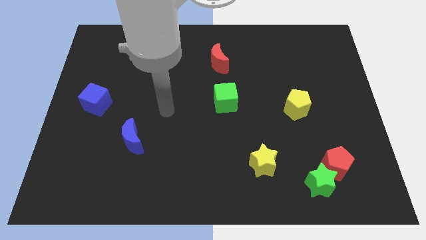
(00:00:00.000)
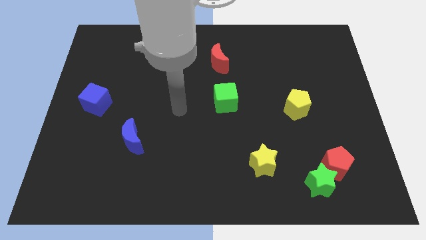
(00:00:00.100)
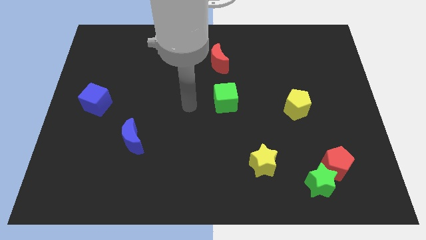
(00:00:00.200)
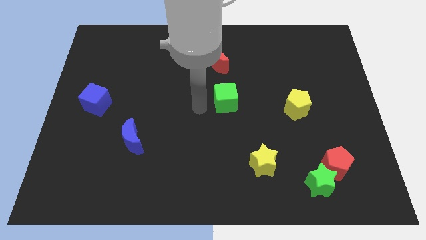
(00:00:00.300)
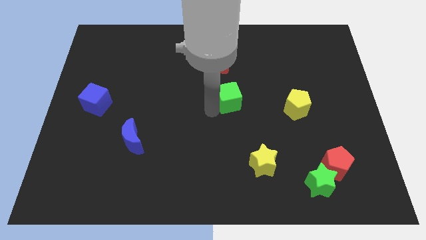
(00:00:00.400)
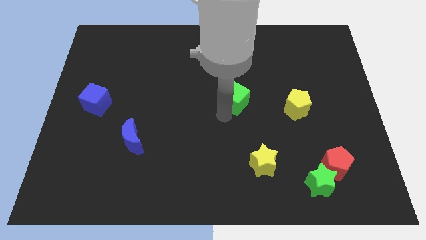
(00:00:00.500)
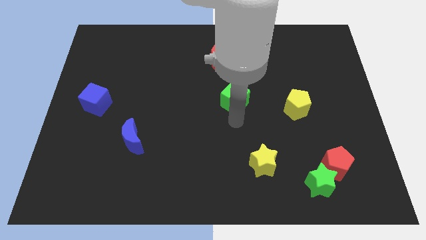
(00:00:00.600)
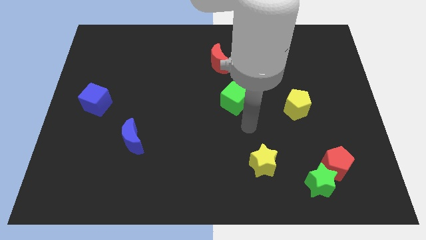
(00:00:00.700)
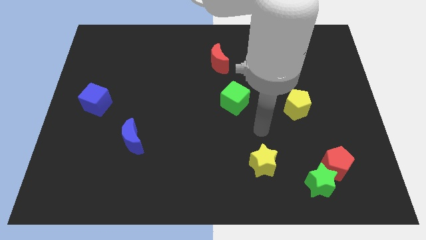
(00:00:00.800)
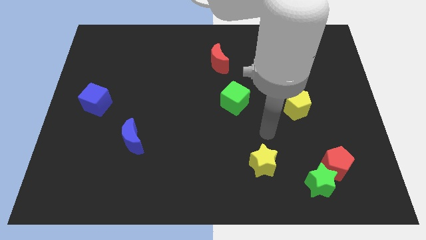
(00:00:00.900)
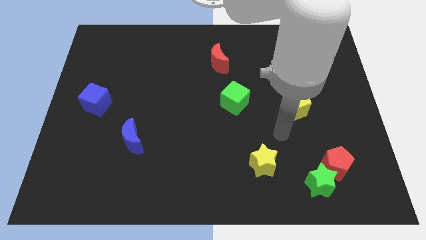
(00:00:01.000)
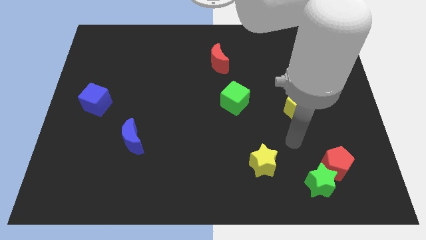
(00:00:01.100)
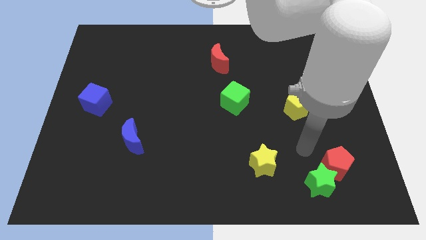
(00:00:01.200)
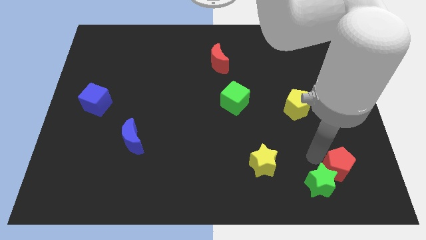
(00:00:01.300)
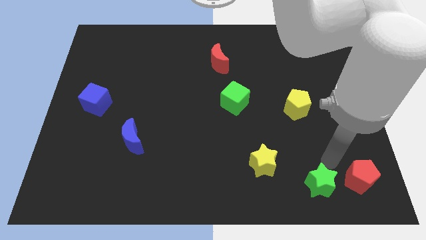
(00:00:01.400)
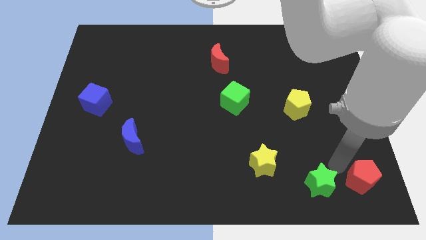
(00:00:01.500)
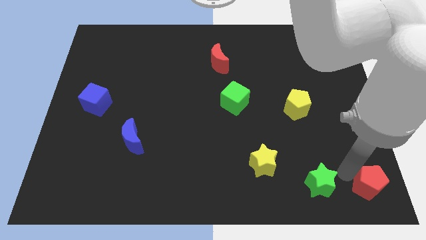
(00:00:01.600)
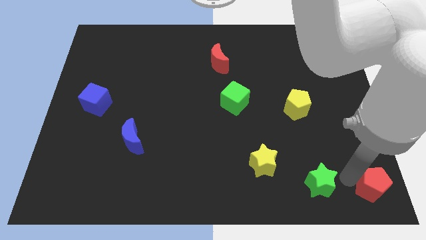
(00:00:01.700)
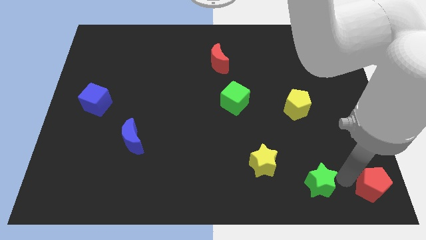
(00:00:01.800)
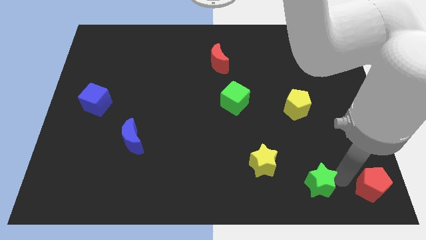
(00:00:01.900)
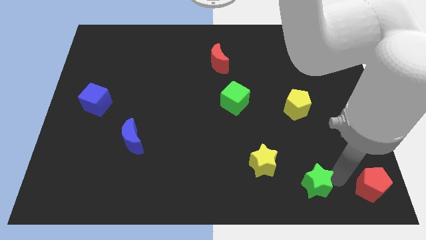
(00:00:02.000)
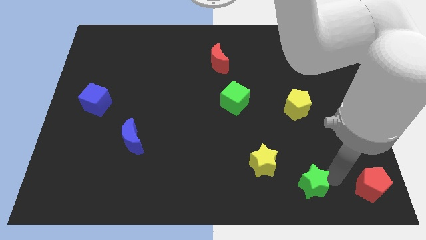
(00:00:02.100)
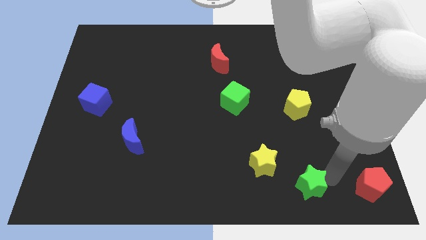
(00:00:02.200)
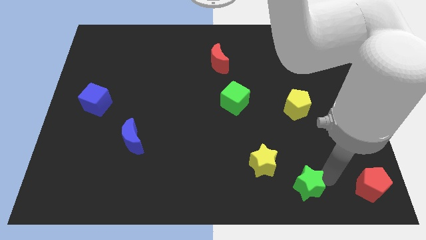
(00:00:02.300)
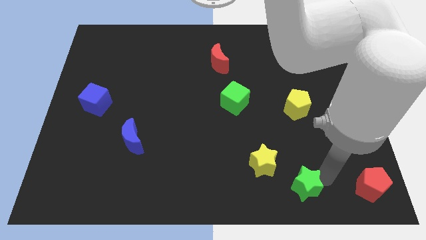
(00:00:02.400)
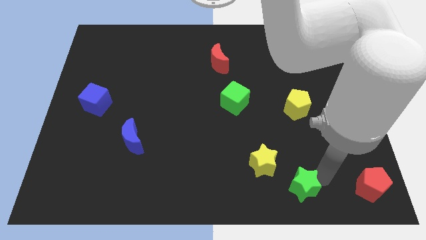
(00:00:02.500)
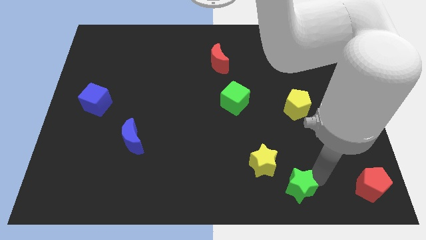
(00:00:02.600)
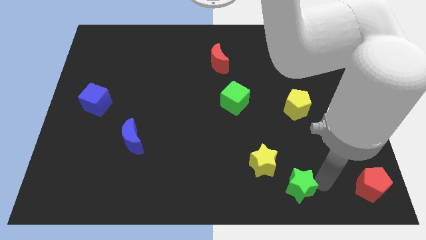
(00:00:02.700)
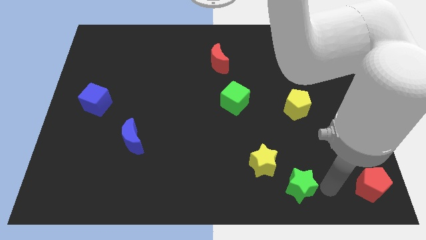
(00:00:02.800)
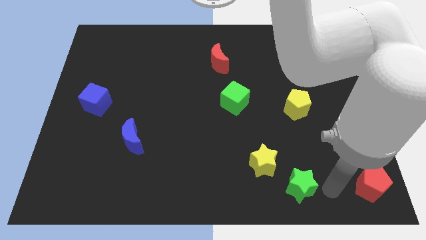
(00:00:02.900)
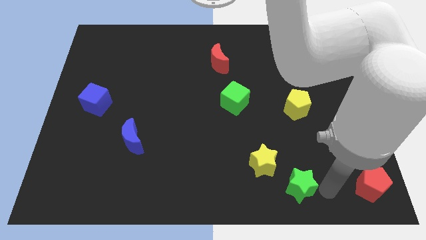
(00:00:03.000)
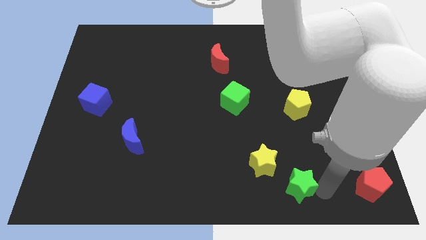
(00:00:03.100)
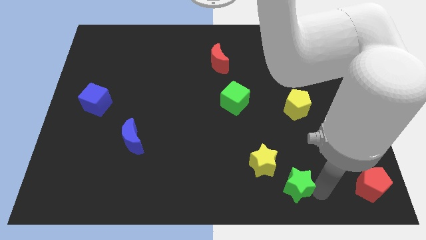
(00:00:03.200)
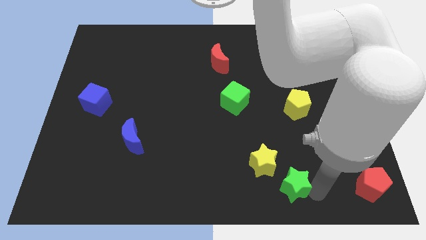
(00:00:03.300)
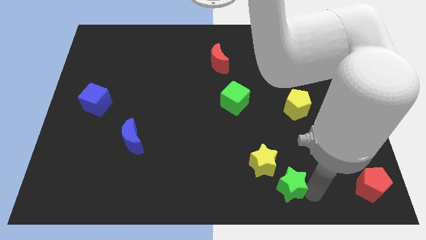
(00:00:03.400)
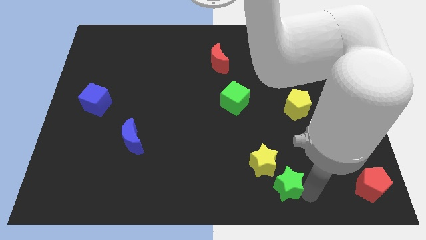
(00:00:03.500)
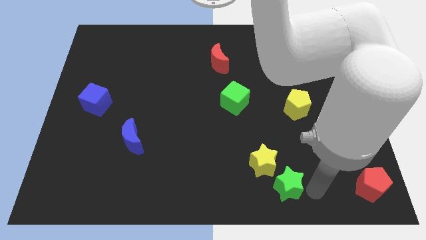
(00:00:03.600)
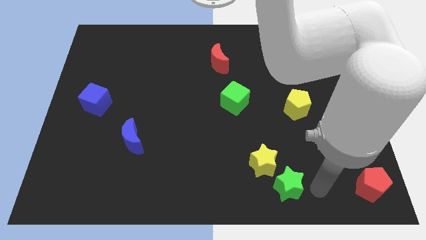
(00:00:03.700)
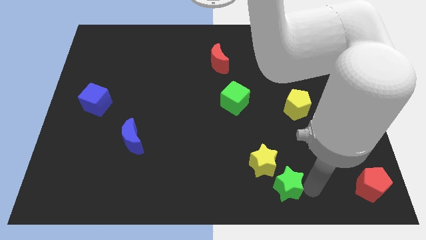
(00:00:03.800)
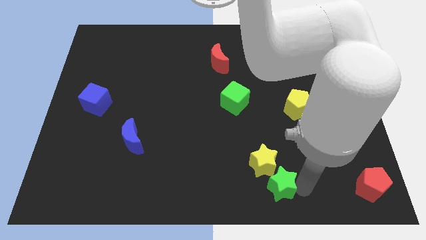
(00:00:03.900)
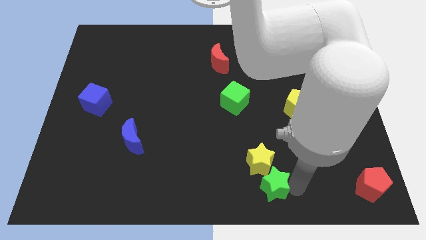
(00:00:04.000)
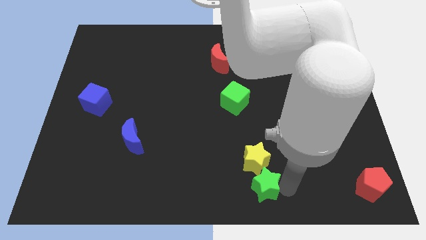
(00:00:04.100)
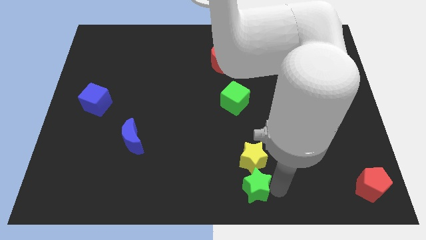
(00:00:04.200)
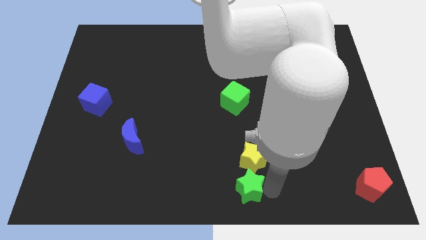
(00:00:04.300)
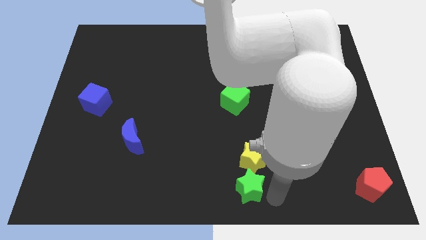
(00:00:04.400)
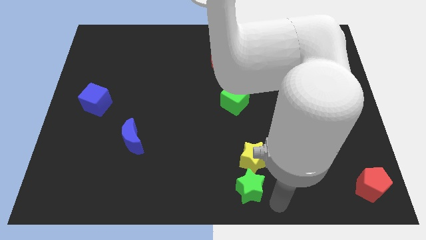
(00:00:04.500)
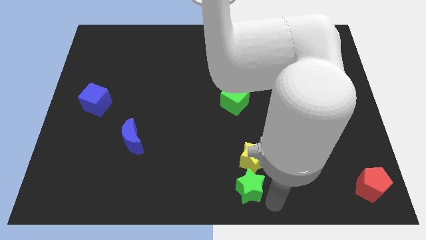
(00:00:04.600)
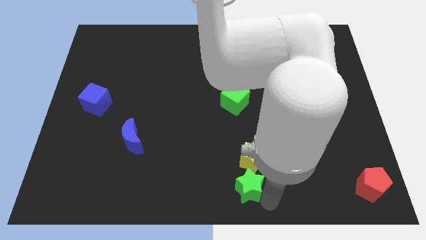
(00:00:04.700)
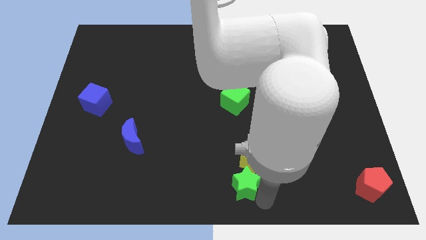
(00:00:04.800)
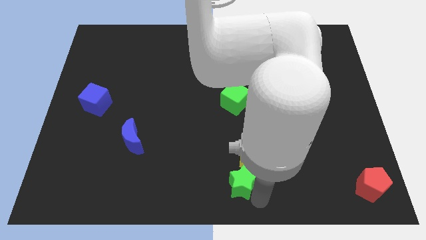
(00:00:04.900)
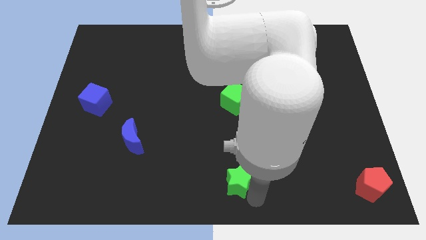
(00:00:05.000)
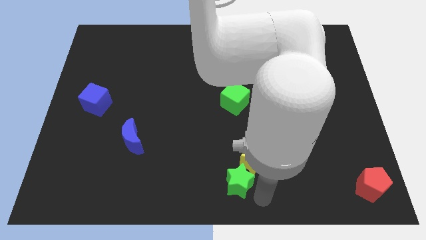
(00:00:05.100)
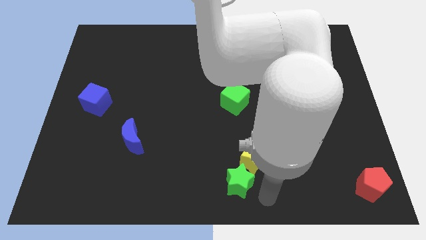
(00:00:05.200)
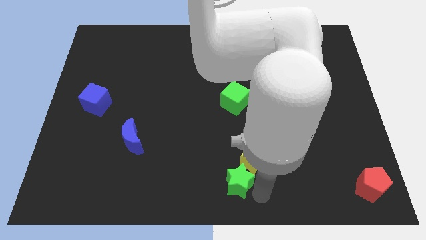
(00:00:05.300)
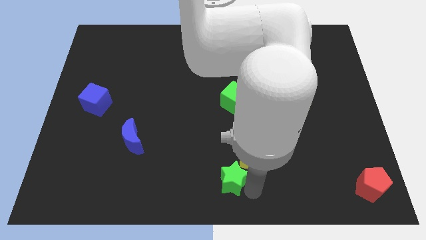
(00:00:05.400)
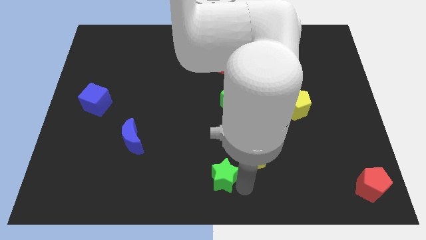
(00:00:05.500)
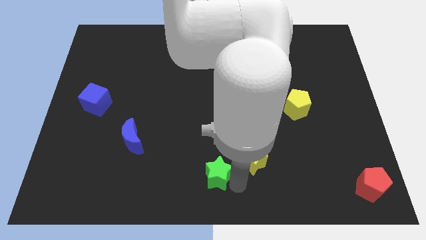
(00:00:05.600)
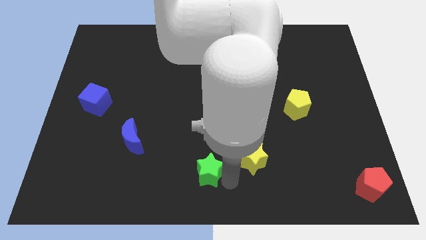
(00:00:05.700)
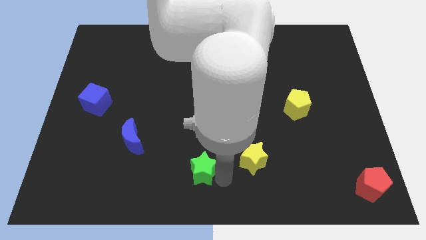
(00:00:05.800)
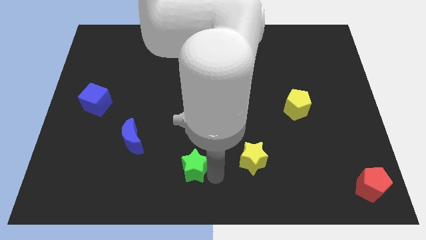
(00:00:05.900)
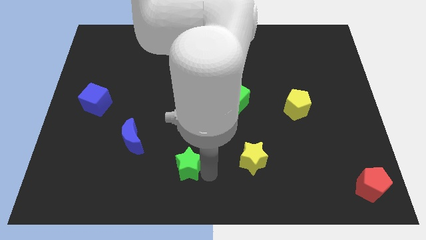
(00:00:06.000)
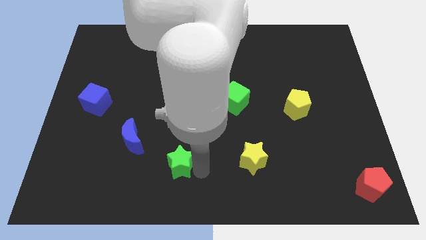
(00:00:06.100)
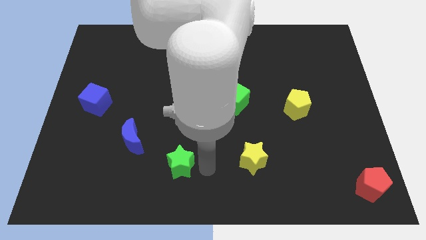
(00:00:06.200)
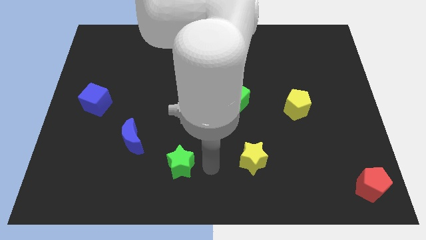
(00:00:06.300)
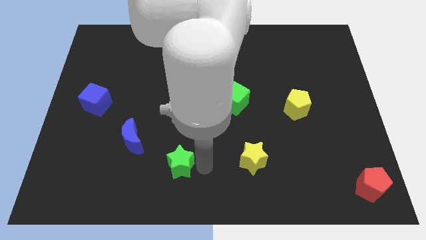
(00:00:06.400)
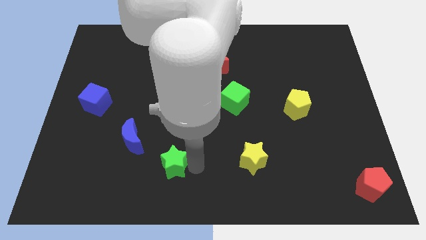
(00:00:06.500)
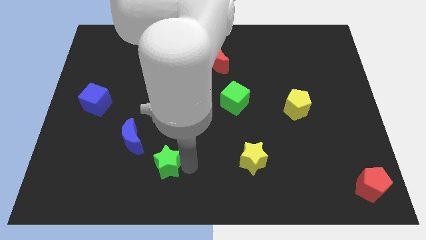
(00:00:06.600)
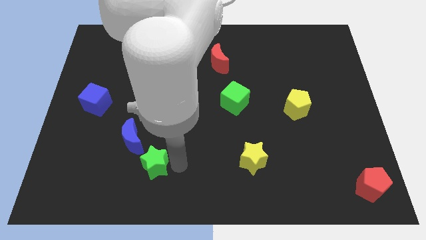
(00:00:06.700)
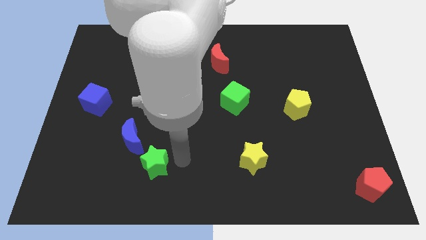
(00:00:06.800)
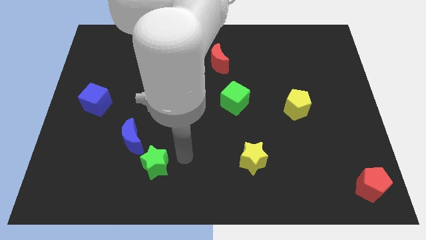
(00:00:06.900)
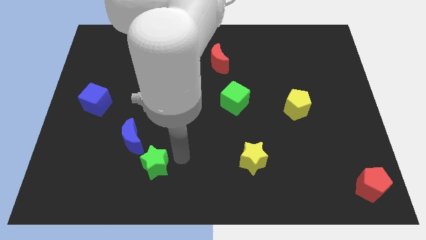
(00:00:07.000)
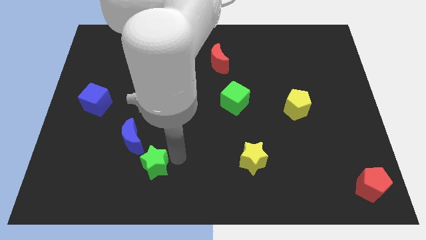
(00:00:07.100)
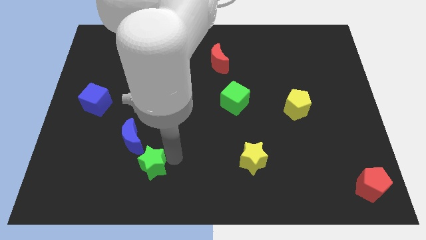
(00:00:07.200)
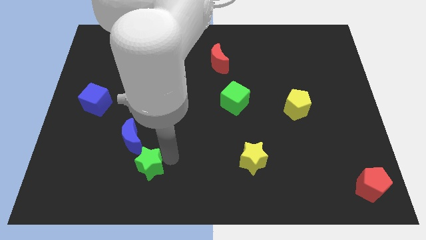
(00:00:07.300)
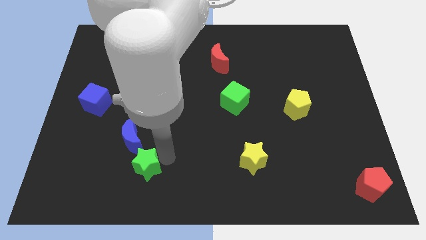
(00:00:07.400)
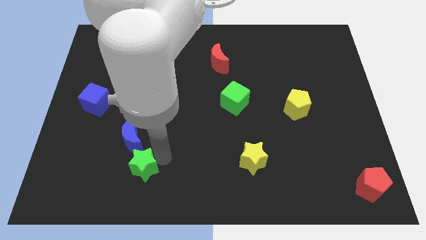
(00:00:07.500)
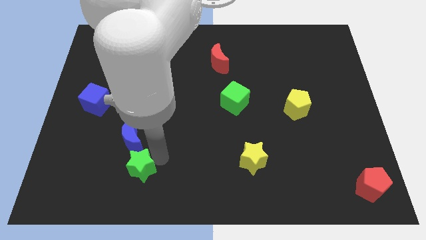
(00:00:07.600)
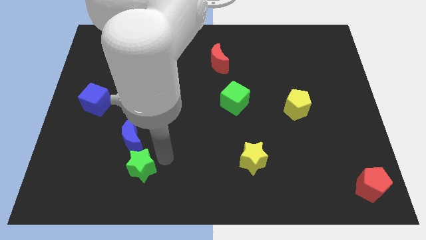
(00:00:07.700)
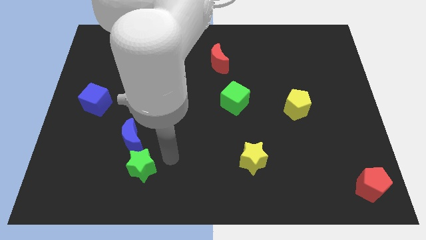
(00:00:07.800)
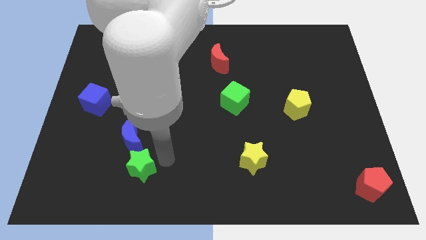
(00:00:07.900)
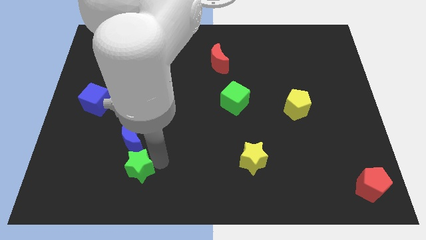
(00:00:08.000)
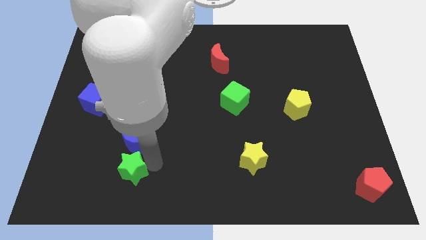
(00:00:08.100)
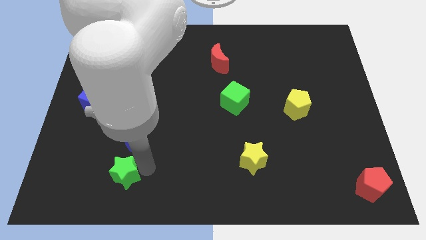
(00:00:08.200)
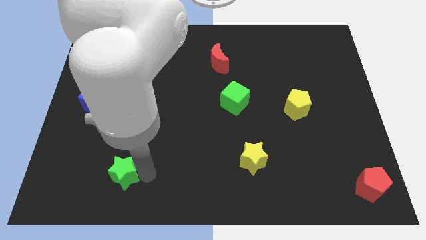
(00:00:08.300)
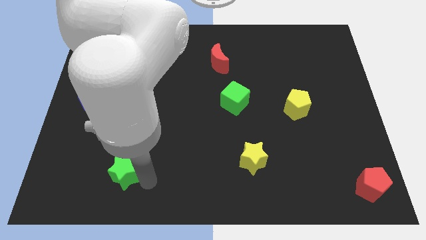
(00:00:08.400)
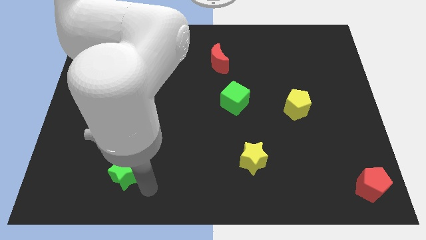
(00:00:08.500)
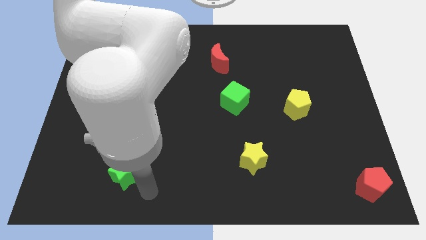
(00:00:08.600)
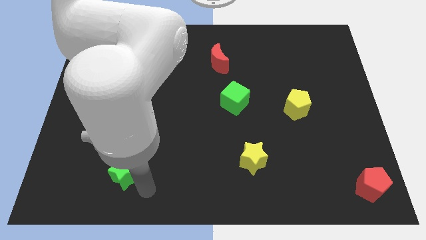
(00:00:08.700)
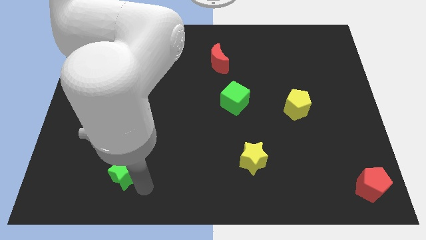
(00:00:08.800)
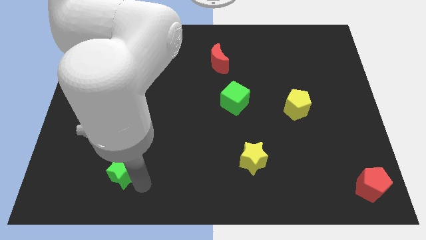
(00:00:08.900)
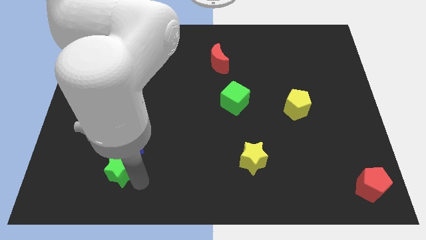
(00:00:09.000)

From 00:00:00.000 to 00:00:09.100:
move the green star diagonally down and to the left of the blue moon
